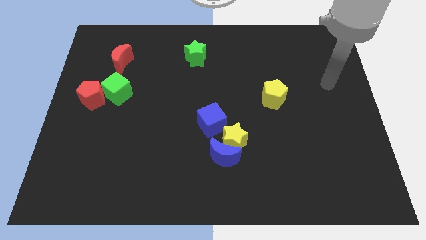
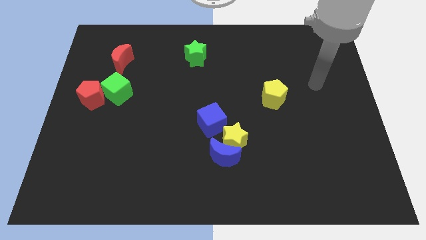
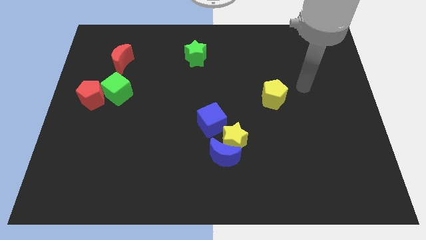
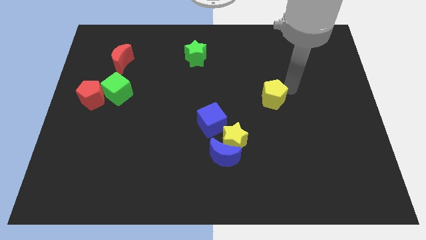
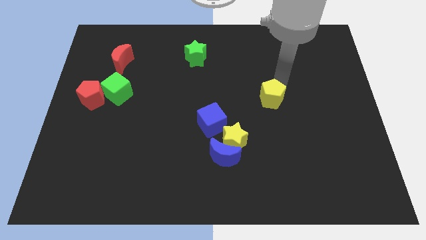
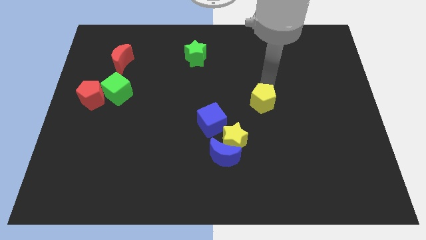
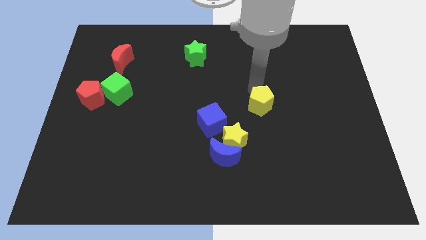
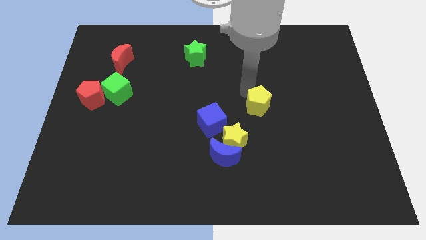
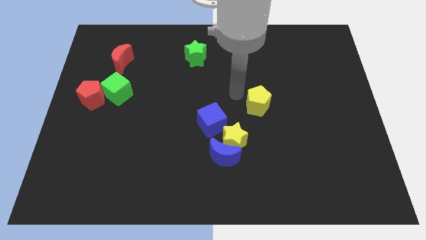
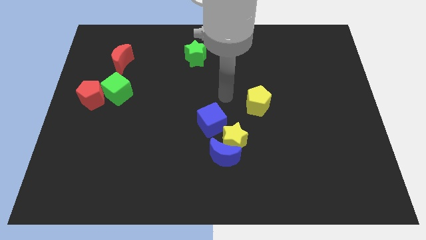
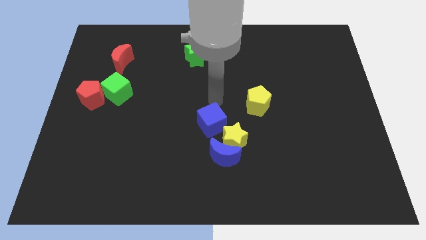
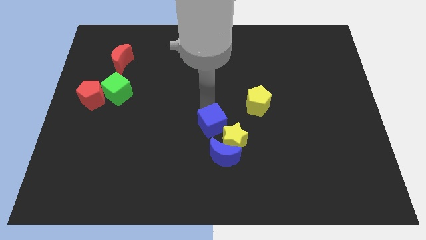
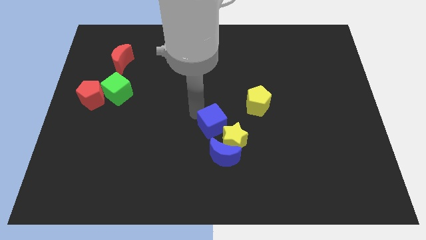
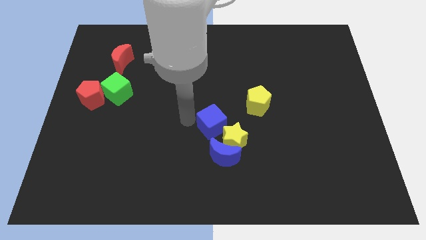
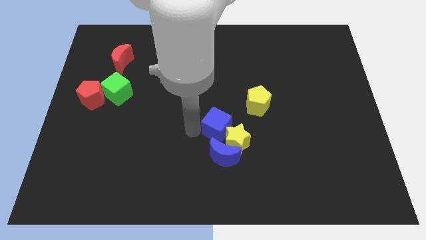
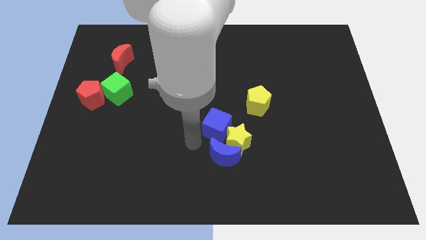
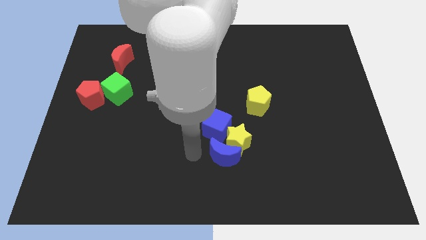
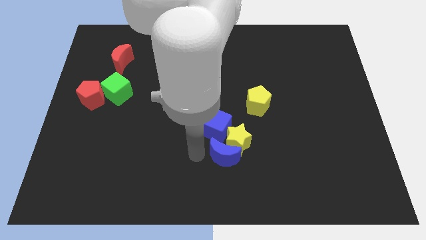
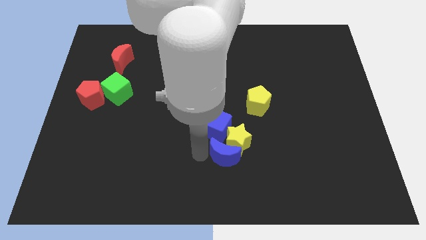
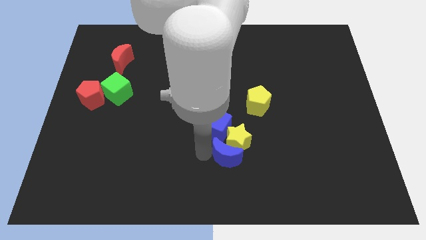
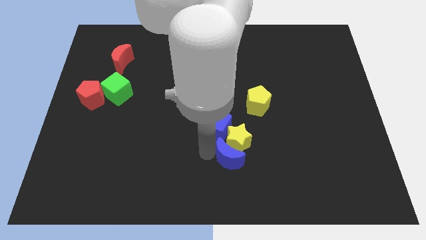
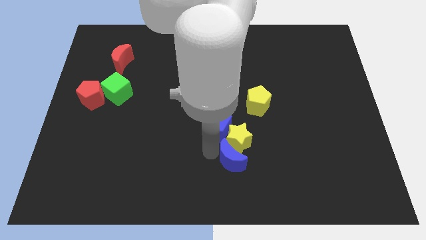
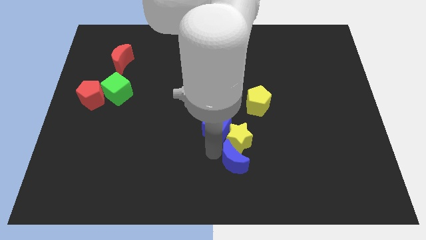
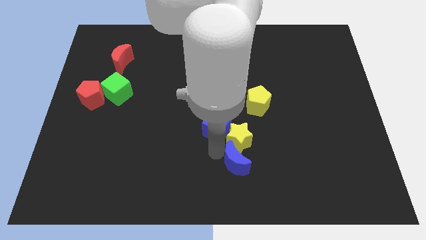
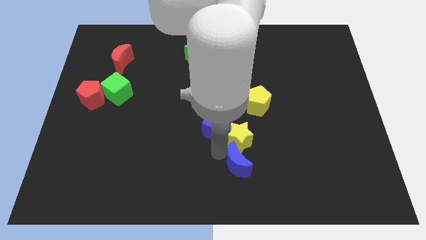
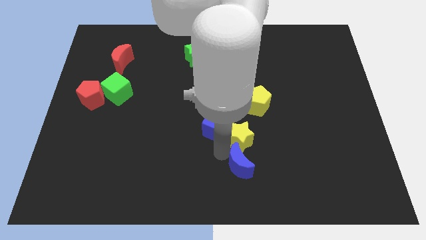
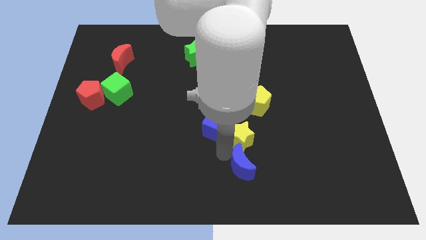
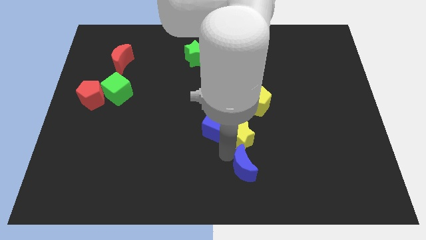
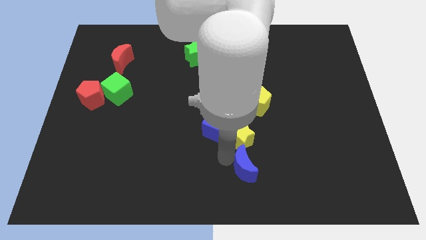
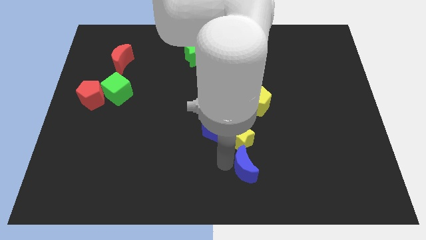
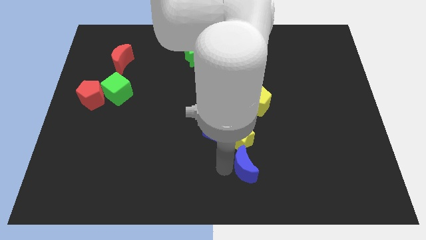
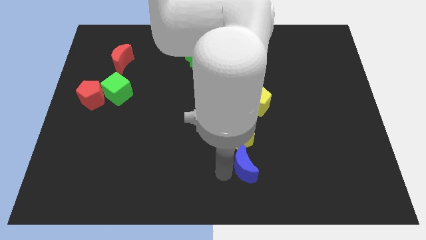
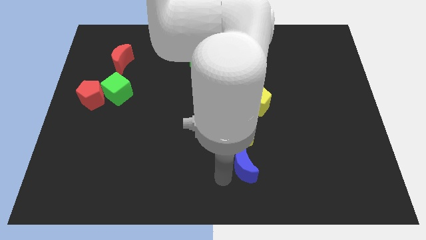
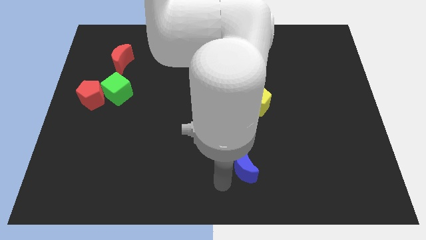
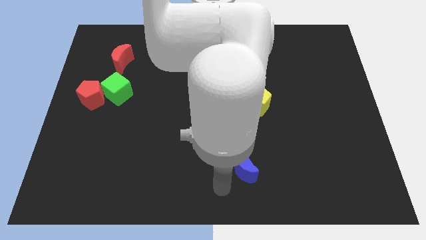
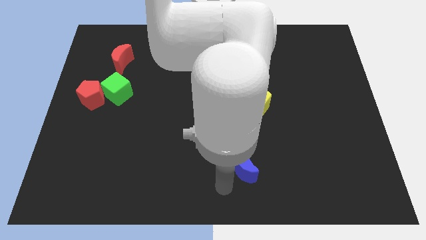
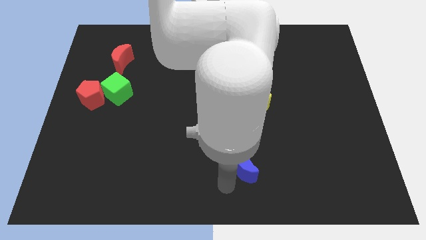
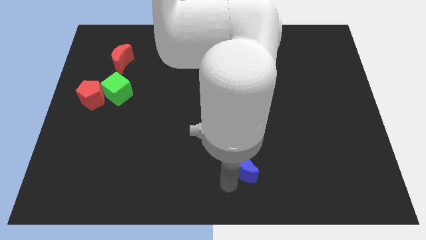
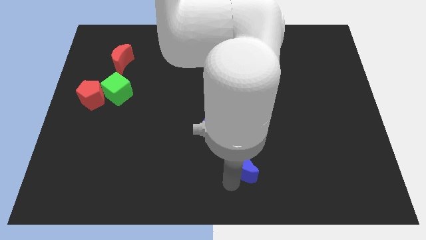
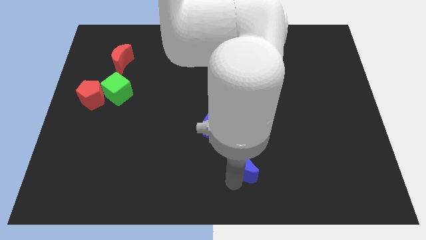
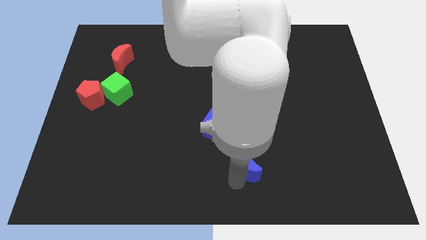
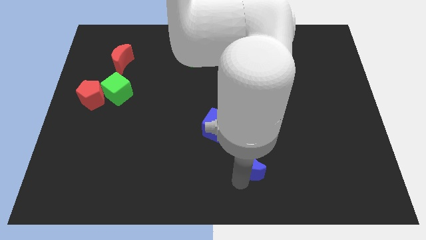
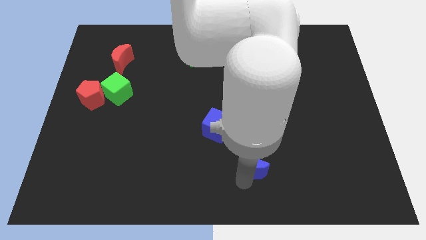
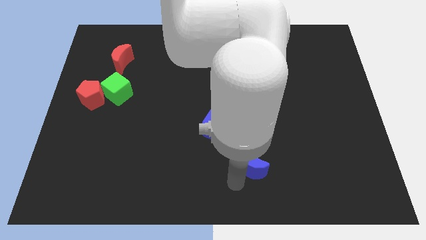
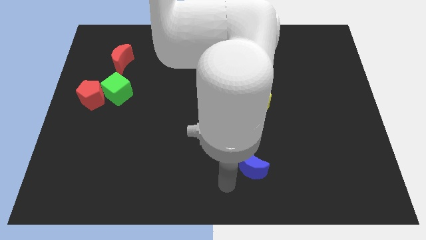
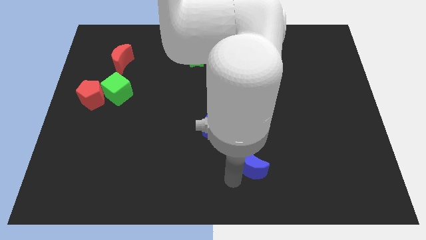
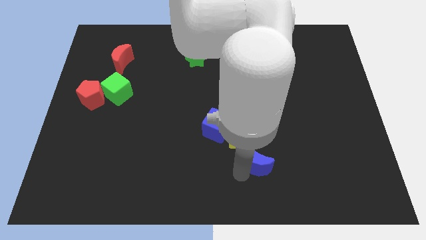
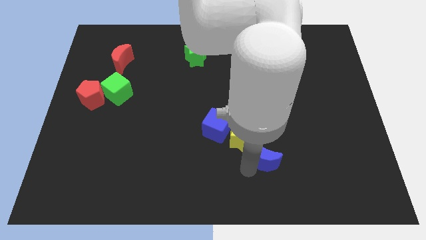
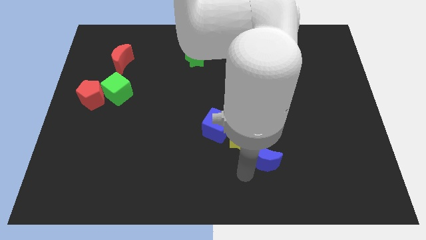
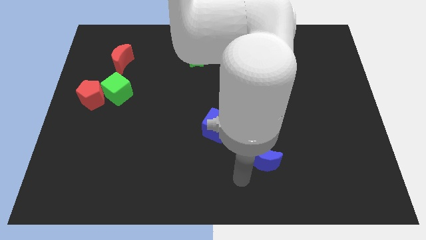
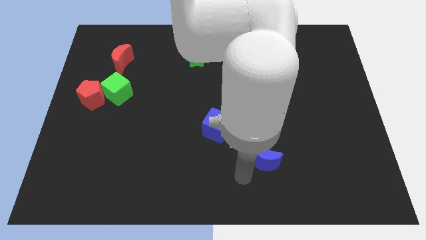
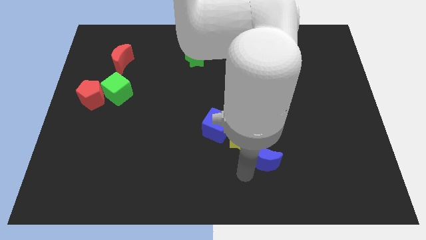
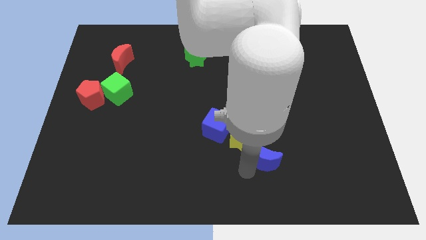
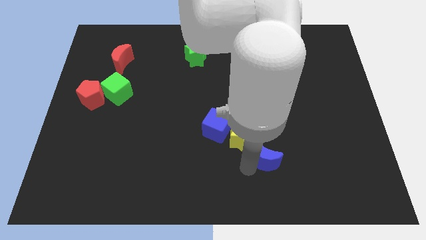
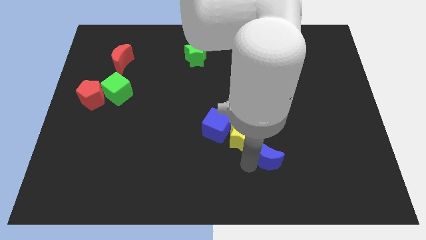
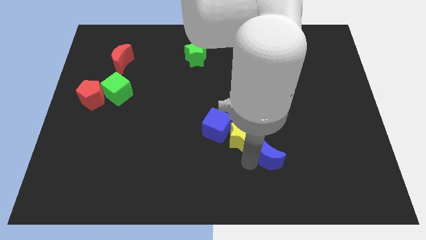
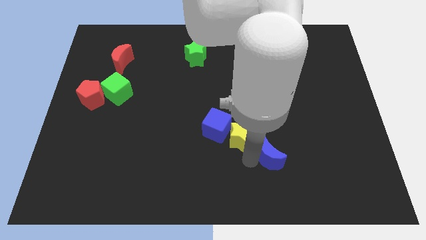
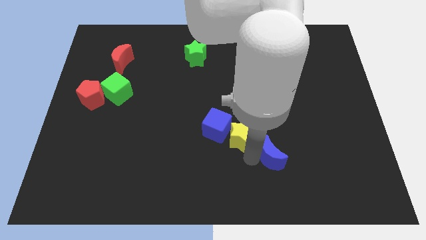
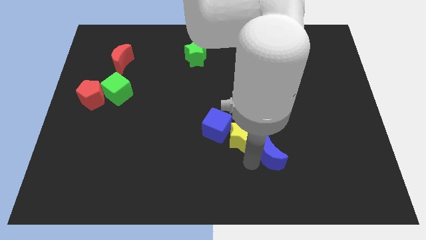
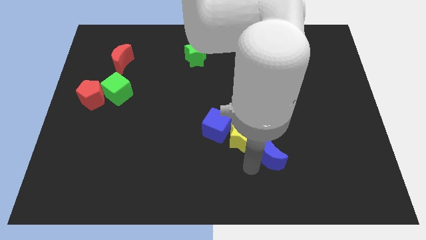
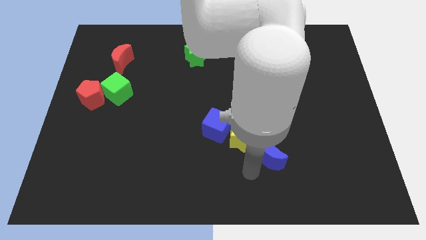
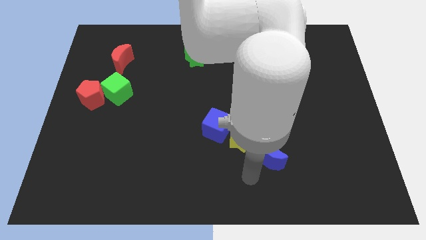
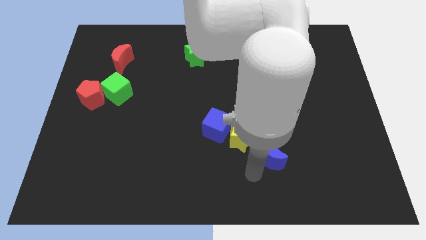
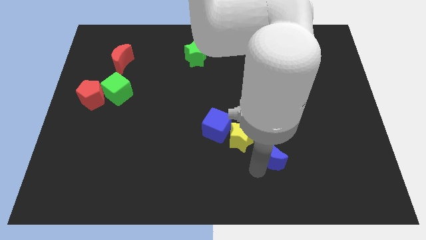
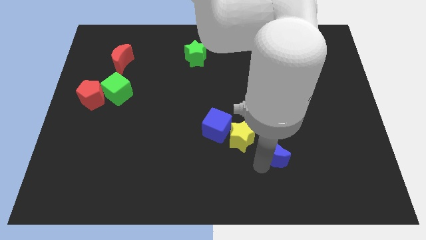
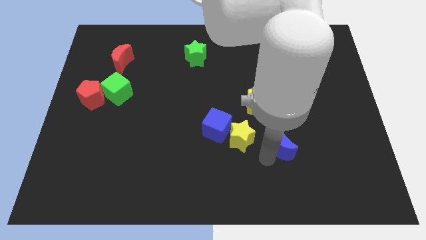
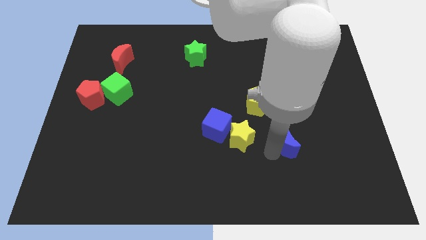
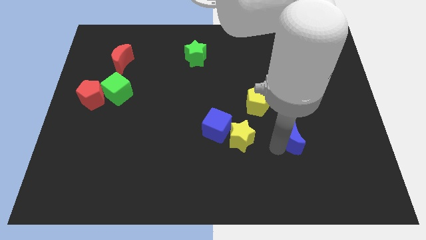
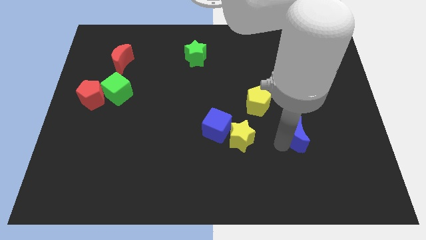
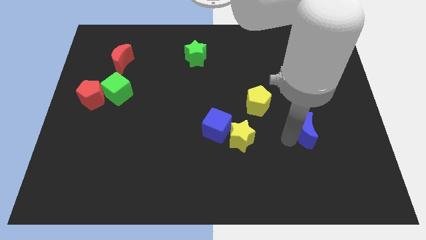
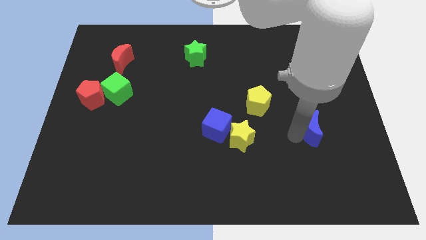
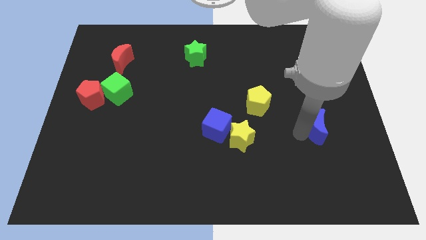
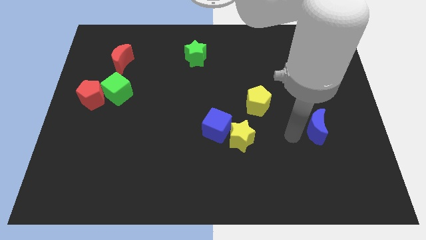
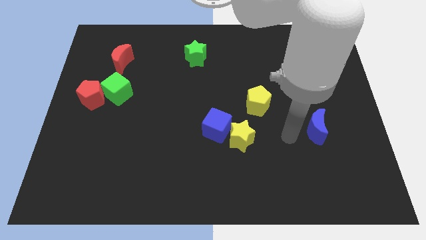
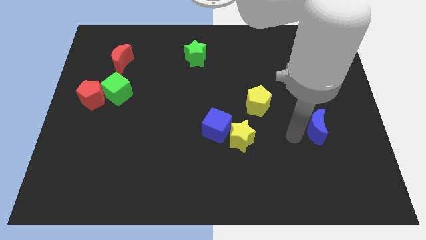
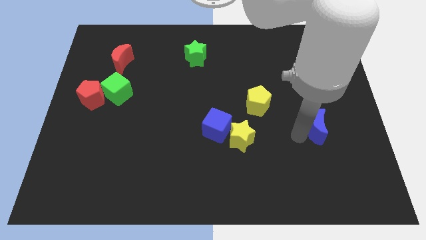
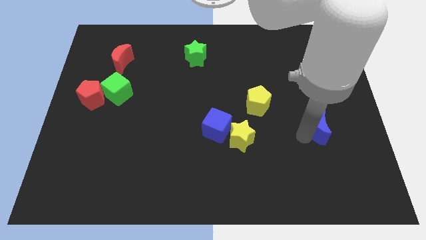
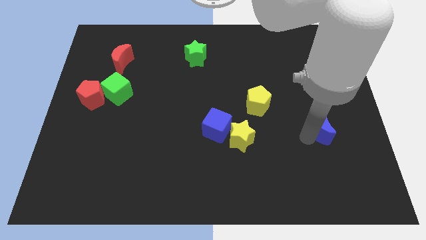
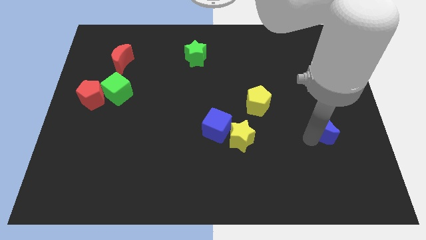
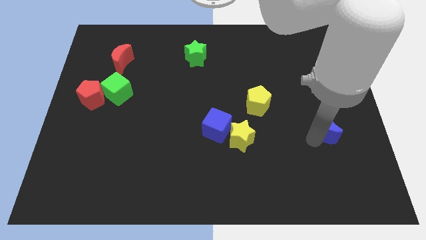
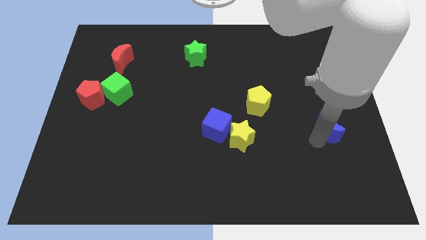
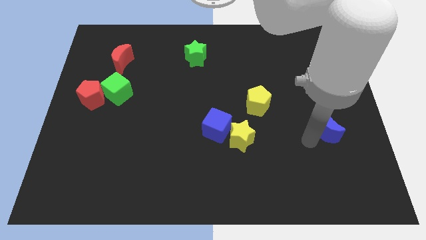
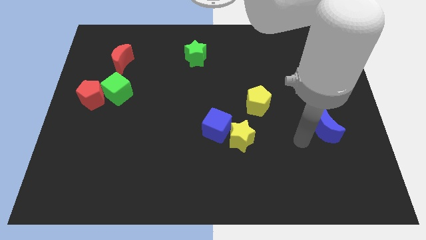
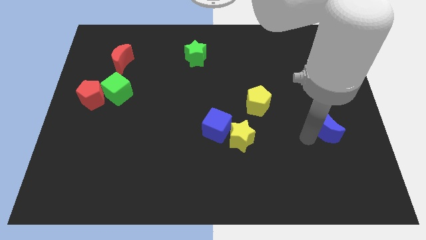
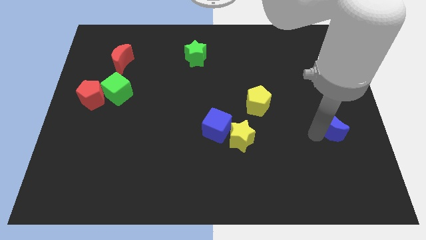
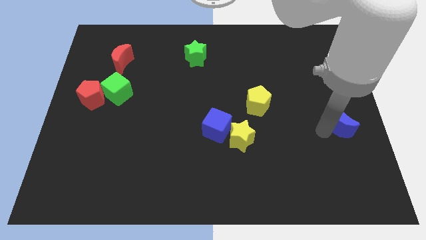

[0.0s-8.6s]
put the blue moon to the center right
